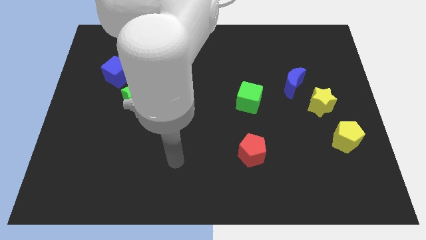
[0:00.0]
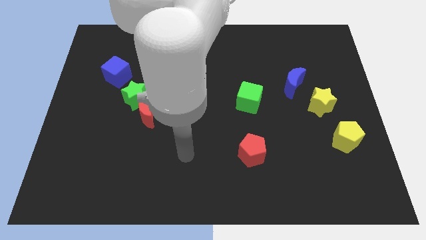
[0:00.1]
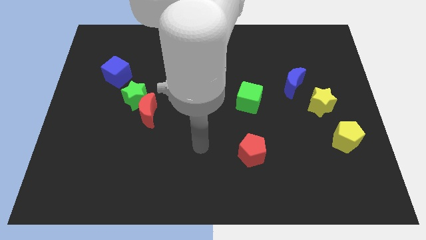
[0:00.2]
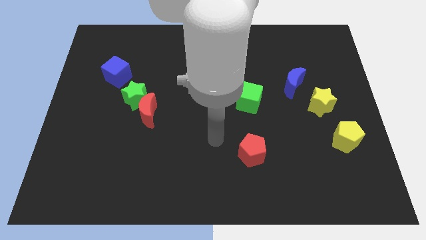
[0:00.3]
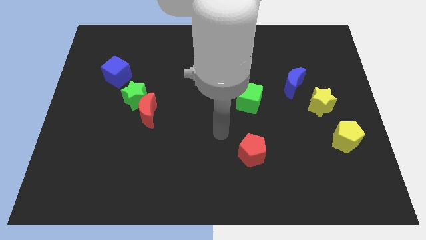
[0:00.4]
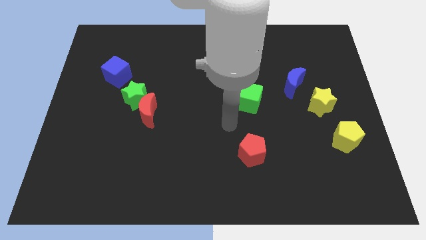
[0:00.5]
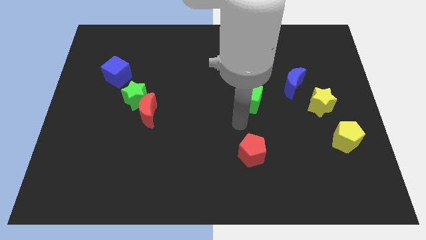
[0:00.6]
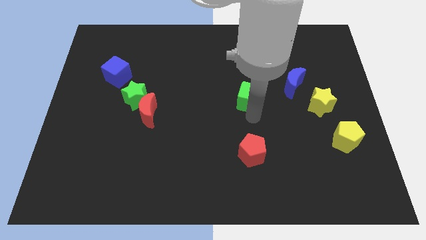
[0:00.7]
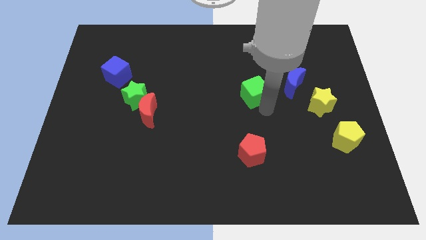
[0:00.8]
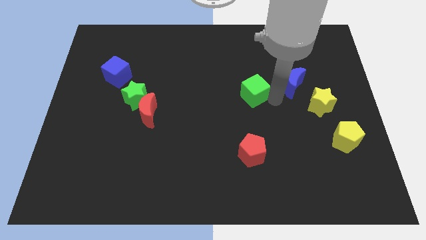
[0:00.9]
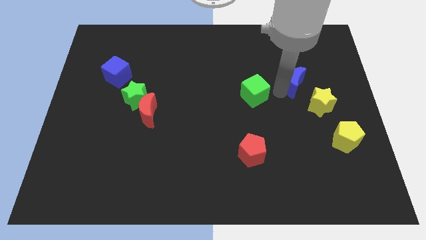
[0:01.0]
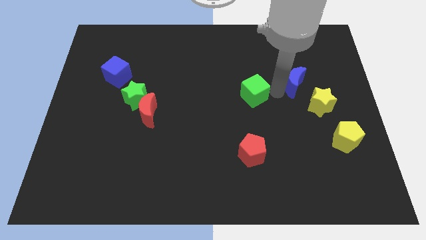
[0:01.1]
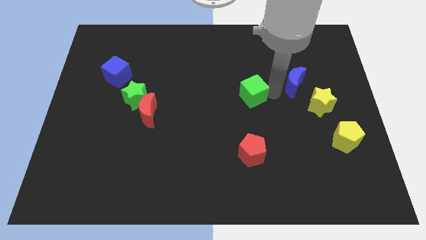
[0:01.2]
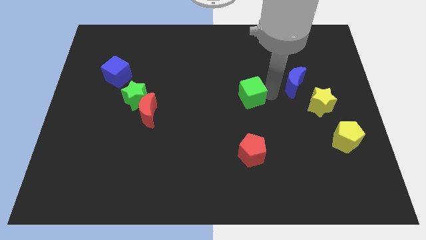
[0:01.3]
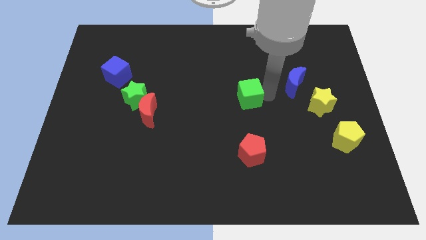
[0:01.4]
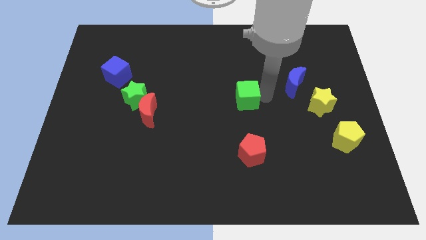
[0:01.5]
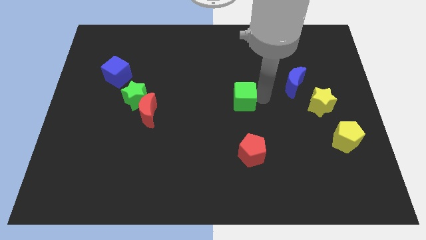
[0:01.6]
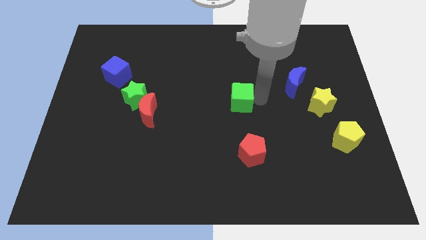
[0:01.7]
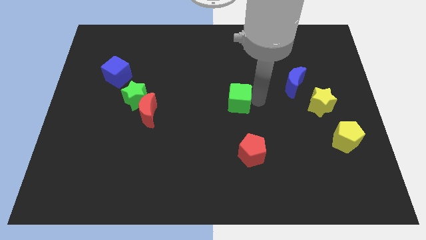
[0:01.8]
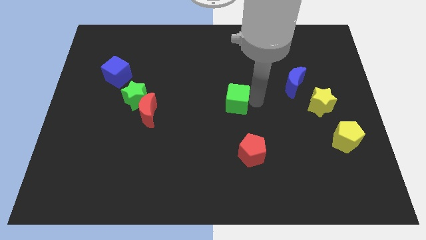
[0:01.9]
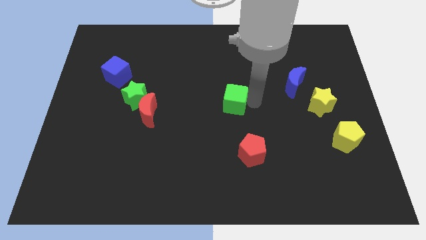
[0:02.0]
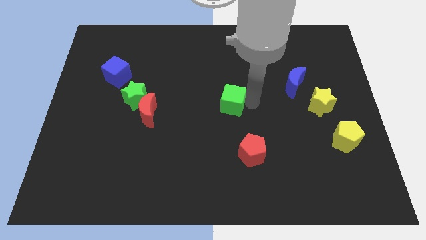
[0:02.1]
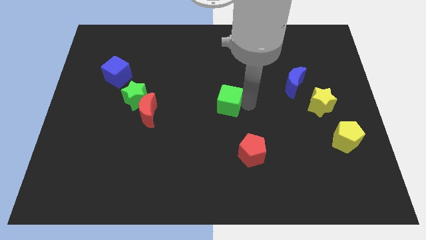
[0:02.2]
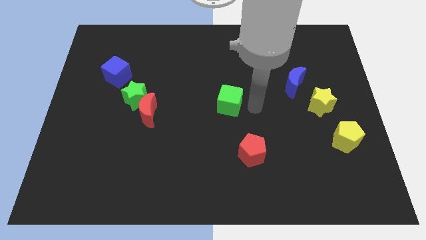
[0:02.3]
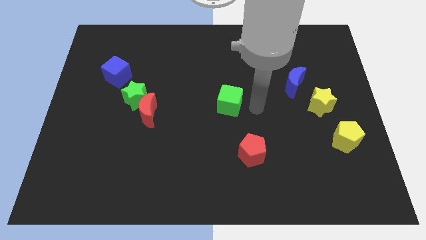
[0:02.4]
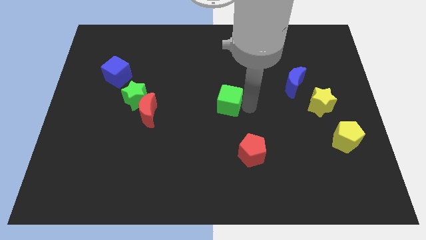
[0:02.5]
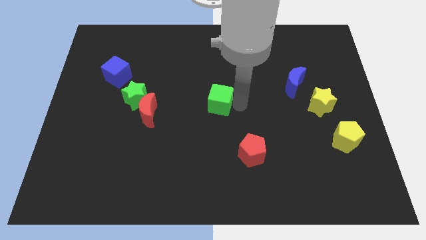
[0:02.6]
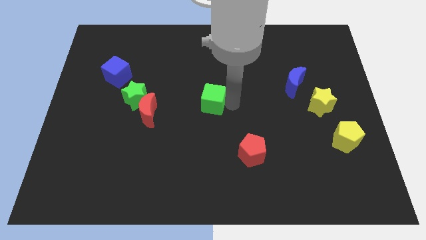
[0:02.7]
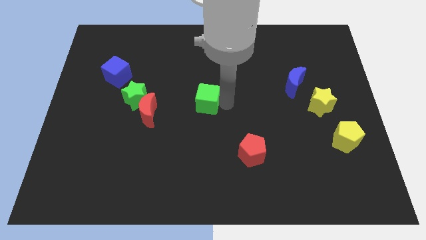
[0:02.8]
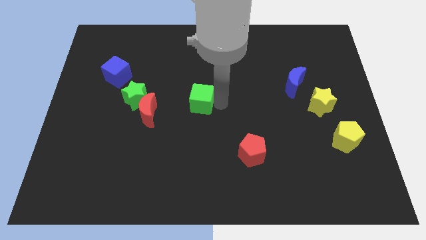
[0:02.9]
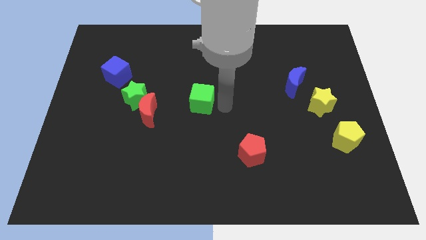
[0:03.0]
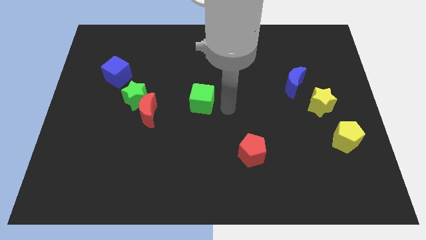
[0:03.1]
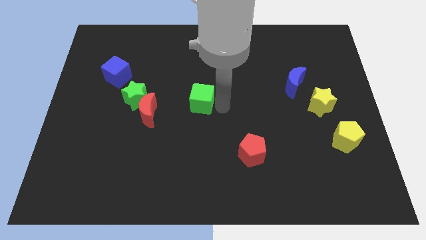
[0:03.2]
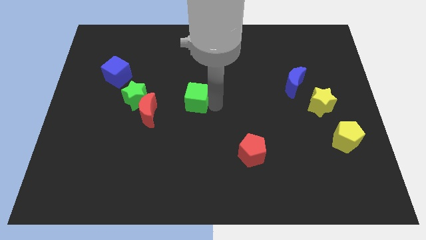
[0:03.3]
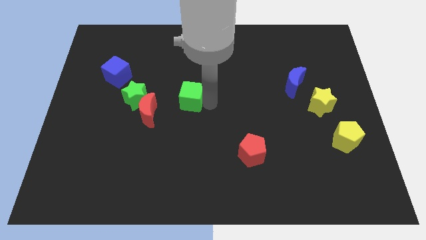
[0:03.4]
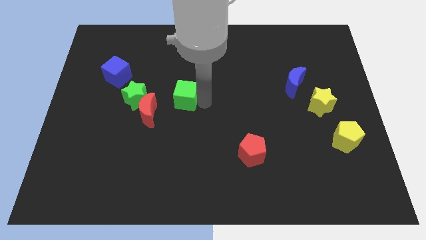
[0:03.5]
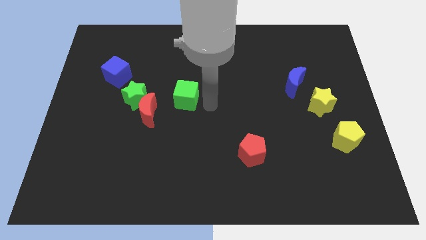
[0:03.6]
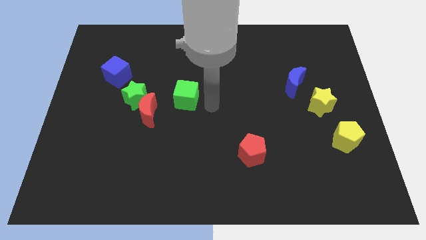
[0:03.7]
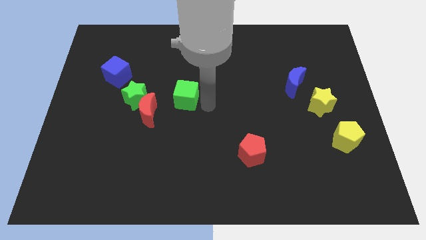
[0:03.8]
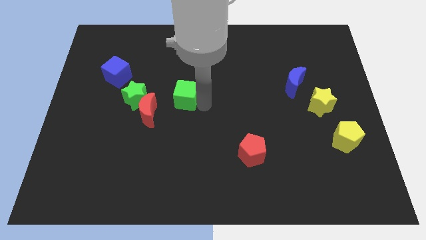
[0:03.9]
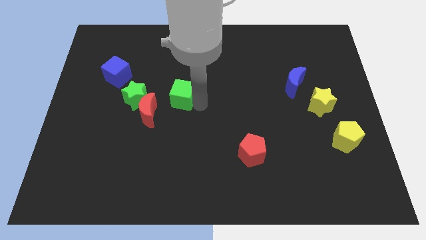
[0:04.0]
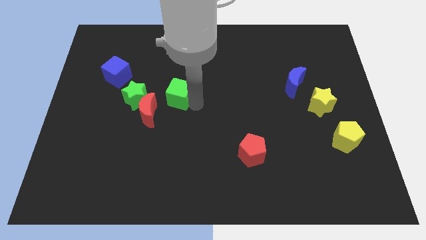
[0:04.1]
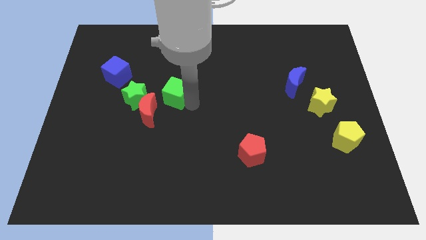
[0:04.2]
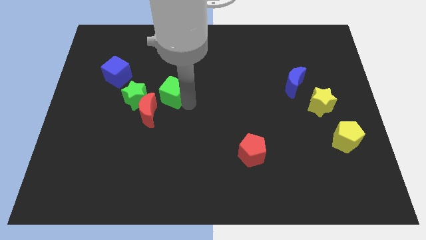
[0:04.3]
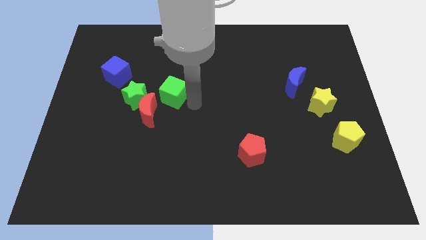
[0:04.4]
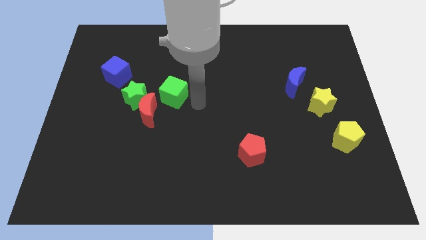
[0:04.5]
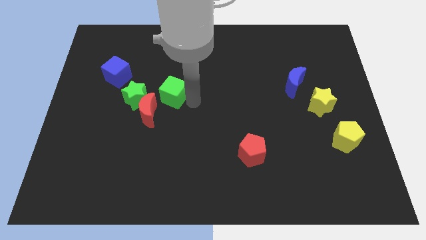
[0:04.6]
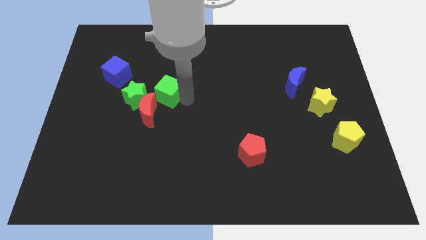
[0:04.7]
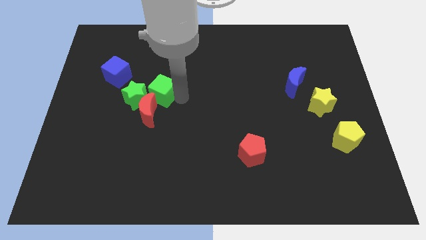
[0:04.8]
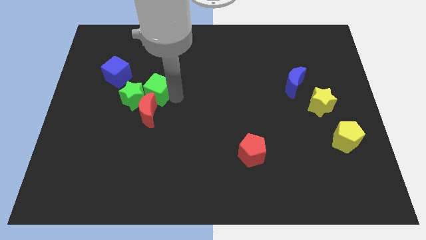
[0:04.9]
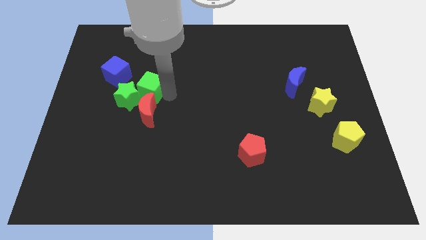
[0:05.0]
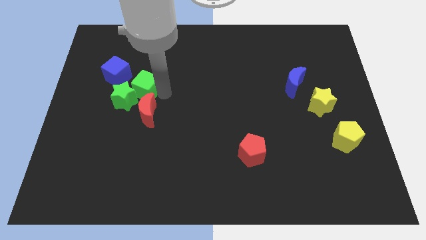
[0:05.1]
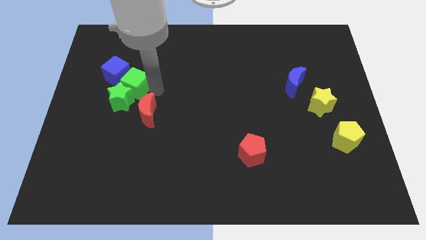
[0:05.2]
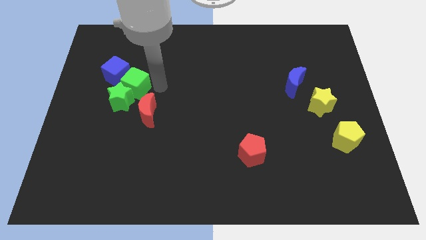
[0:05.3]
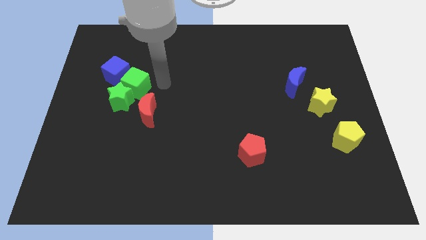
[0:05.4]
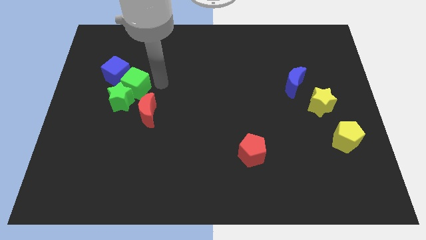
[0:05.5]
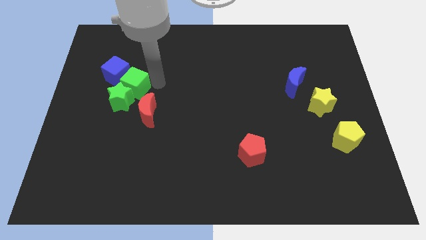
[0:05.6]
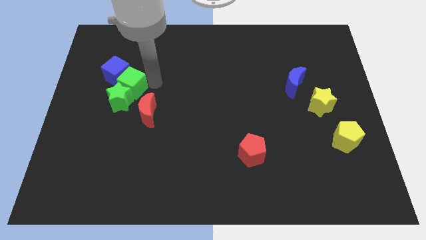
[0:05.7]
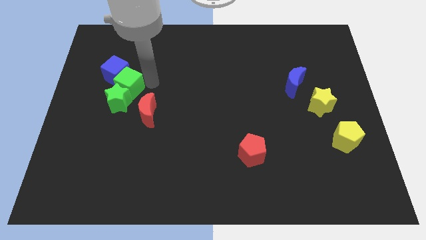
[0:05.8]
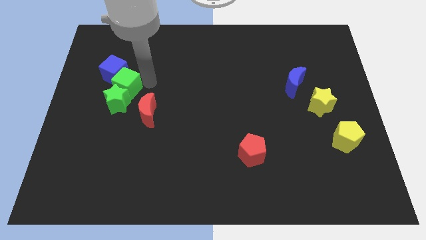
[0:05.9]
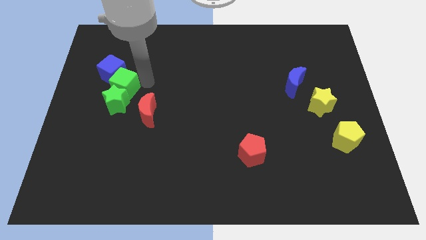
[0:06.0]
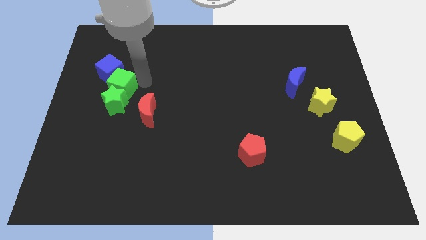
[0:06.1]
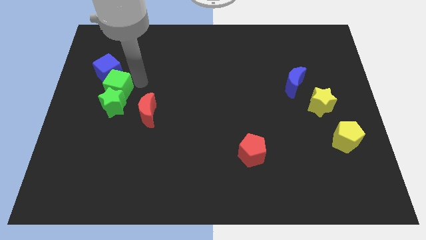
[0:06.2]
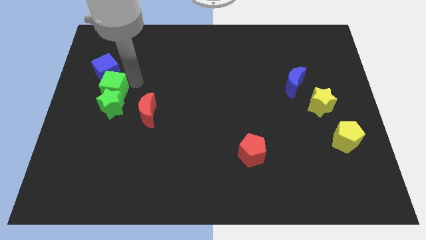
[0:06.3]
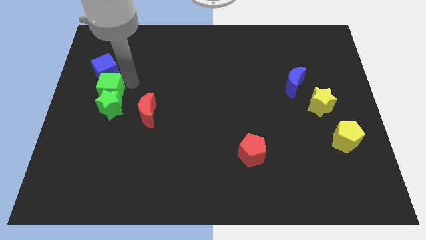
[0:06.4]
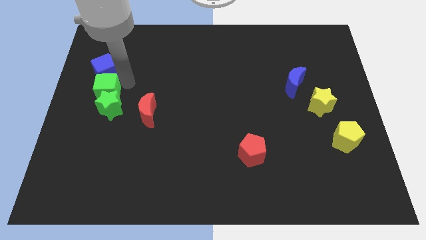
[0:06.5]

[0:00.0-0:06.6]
slide the green cube to the left side of the board

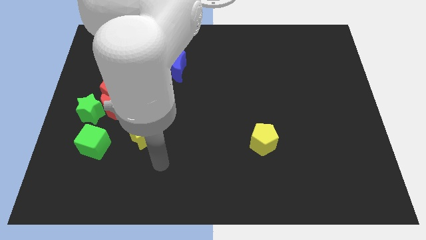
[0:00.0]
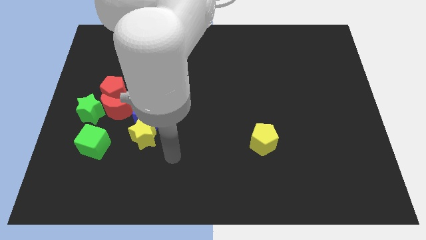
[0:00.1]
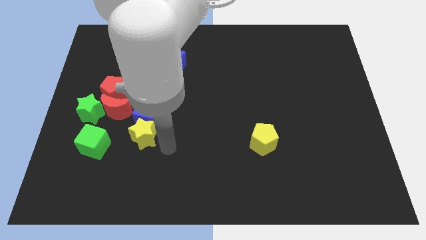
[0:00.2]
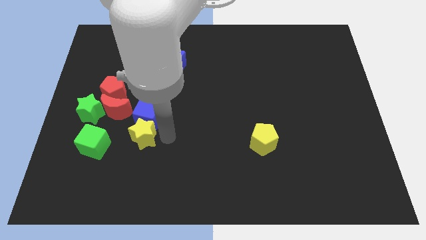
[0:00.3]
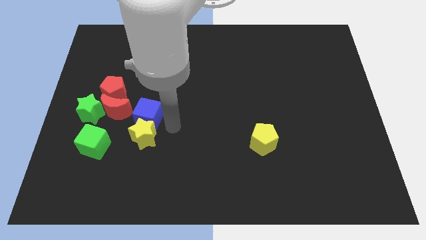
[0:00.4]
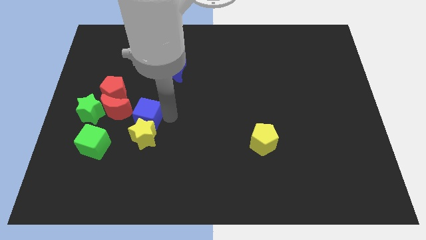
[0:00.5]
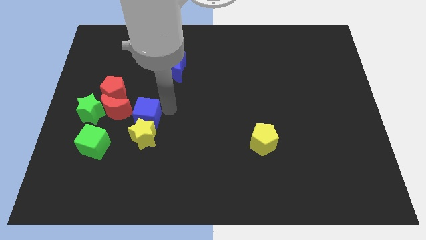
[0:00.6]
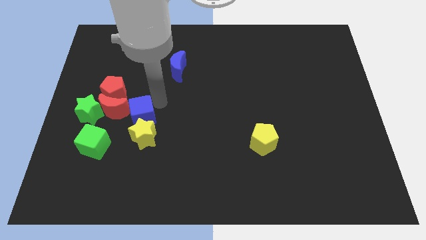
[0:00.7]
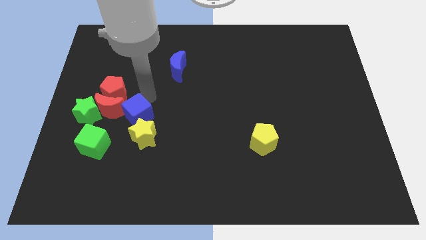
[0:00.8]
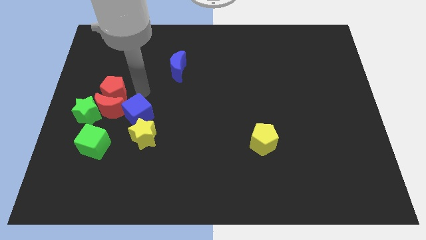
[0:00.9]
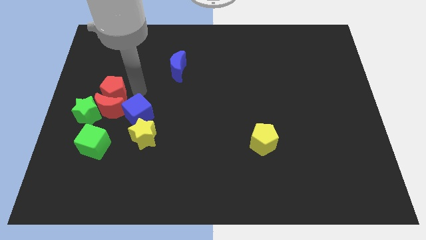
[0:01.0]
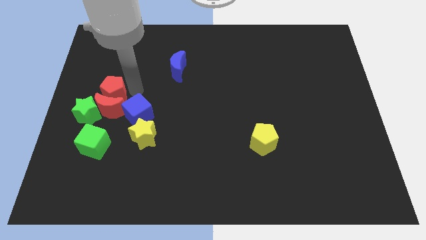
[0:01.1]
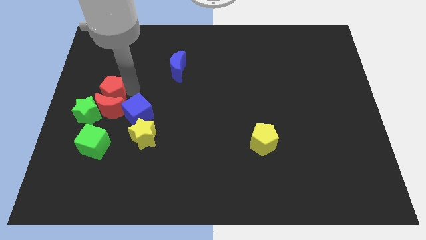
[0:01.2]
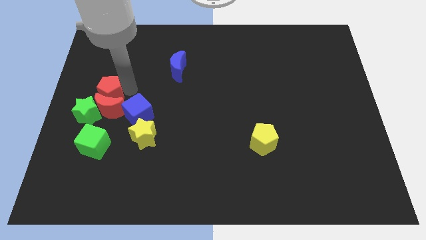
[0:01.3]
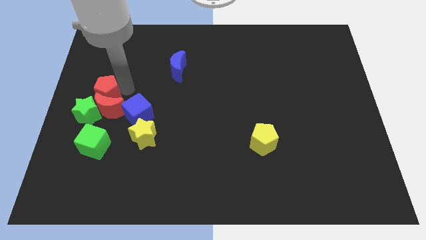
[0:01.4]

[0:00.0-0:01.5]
push the red pentagon to the left side of the board
